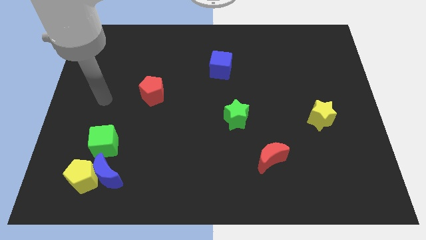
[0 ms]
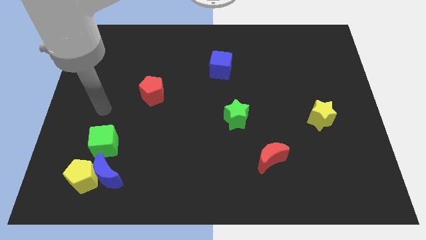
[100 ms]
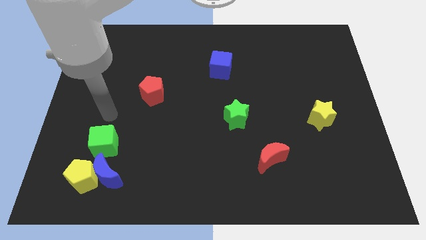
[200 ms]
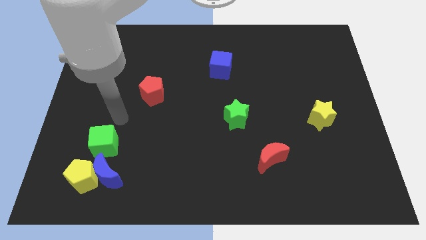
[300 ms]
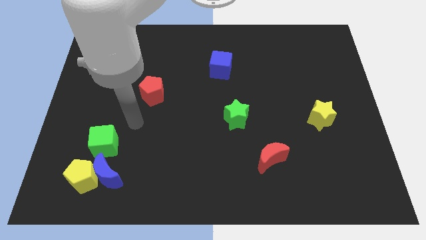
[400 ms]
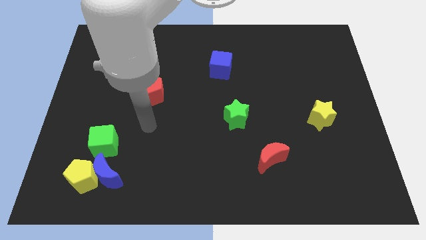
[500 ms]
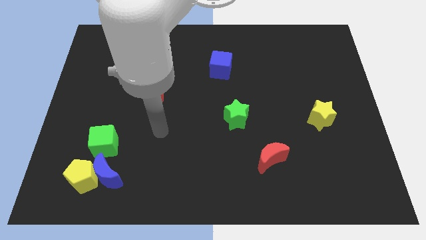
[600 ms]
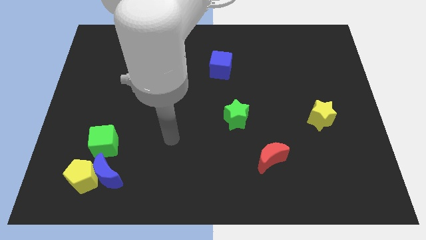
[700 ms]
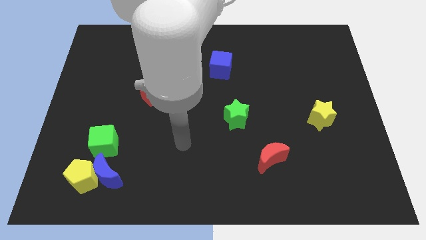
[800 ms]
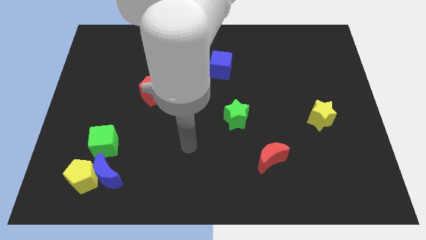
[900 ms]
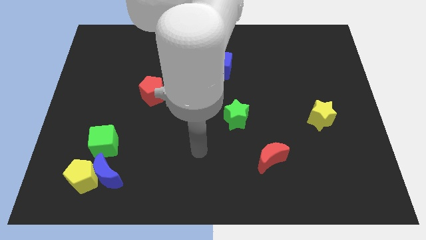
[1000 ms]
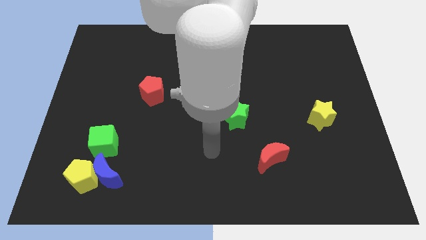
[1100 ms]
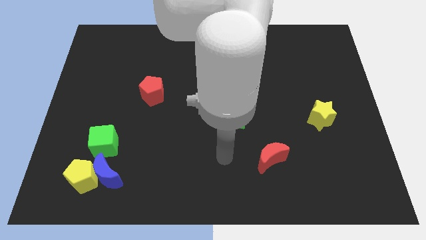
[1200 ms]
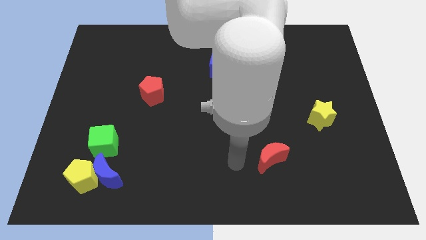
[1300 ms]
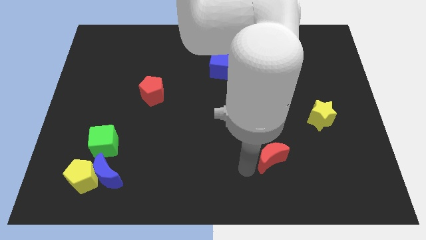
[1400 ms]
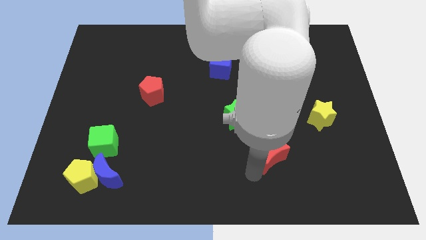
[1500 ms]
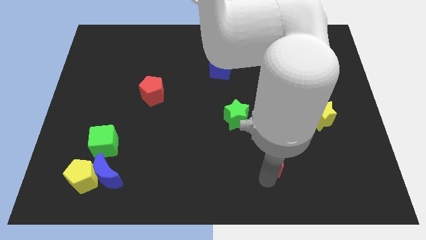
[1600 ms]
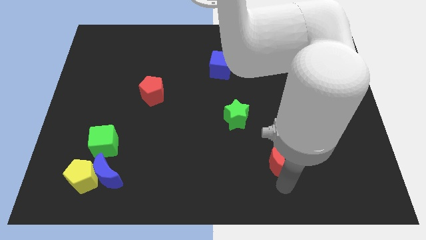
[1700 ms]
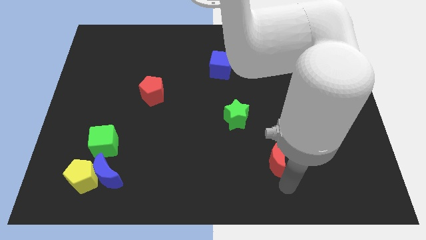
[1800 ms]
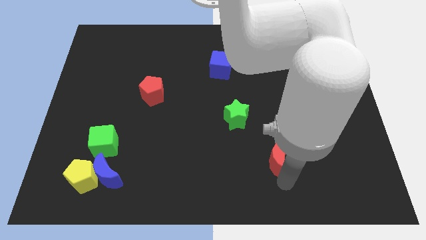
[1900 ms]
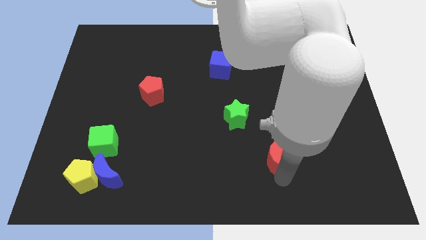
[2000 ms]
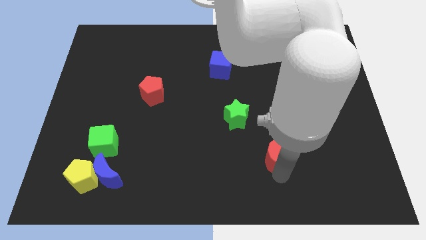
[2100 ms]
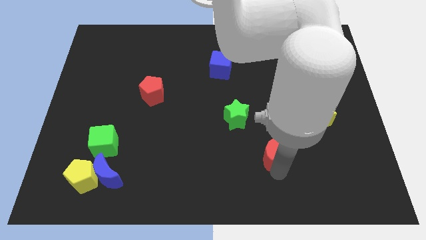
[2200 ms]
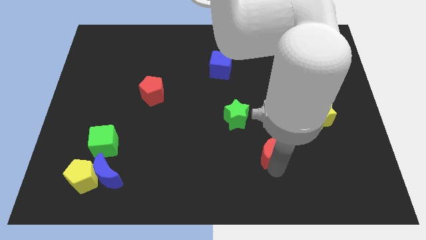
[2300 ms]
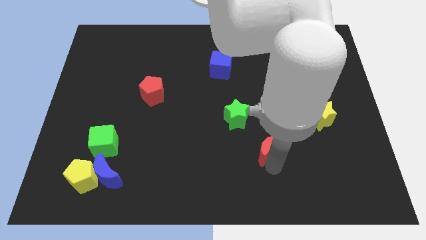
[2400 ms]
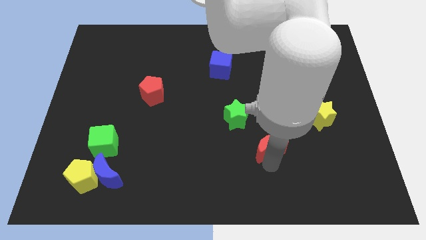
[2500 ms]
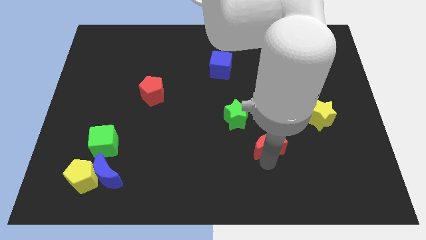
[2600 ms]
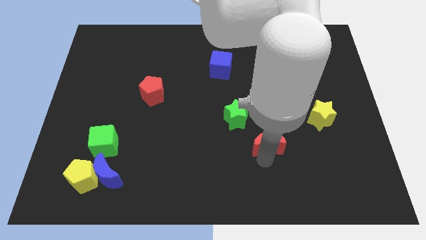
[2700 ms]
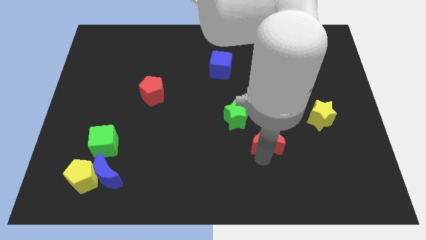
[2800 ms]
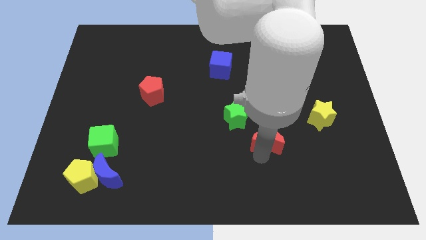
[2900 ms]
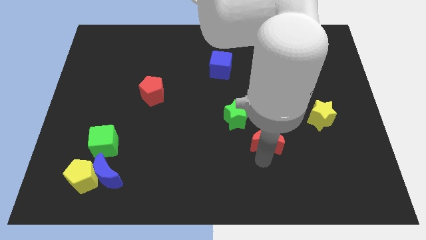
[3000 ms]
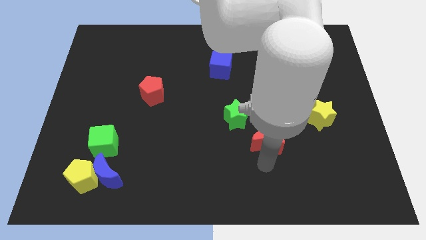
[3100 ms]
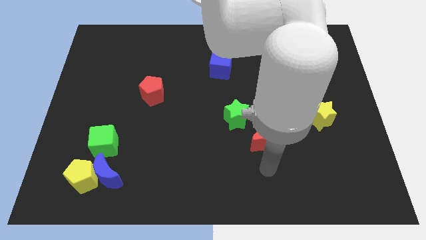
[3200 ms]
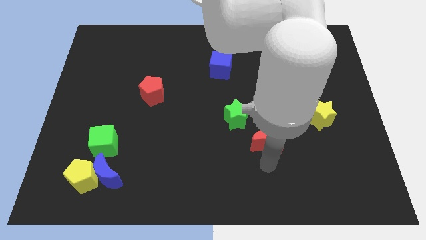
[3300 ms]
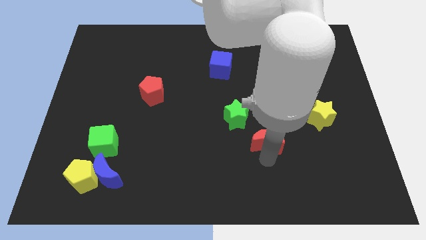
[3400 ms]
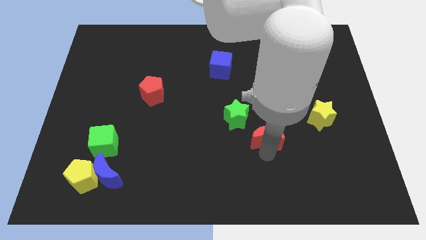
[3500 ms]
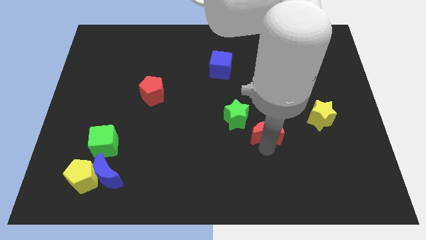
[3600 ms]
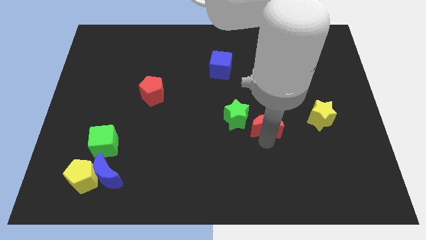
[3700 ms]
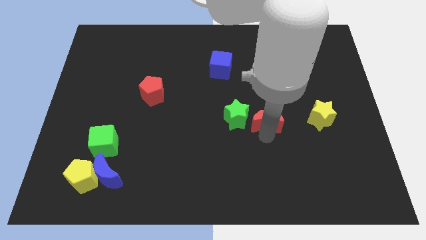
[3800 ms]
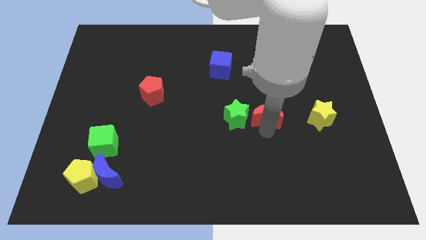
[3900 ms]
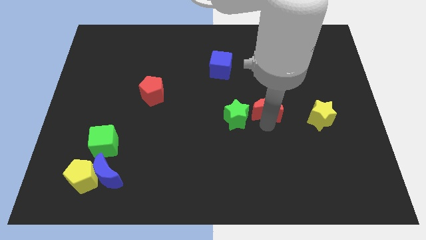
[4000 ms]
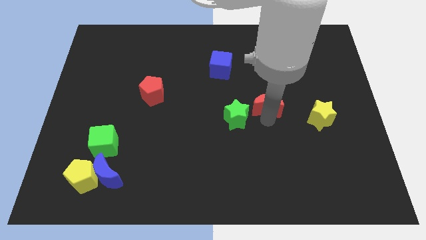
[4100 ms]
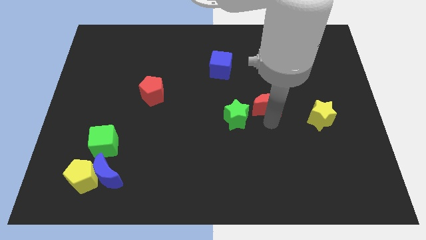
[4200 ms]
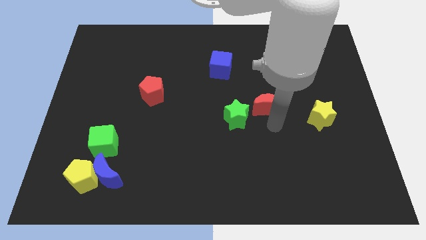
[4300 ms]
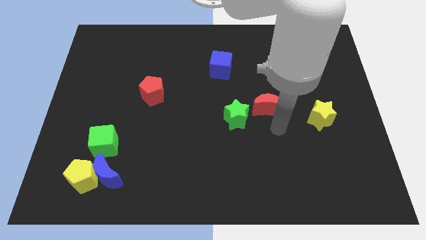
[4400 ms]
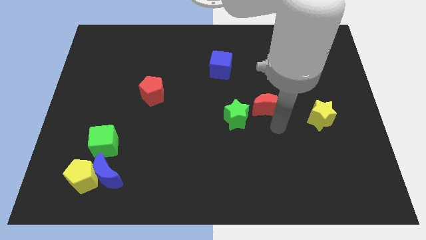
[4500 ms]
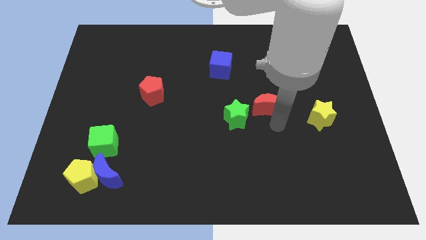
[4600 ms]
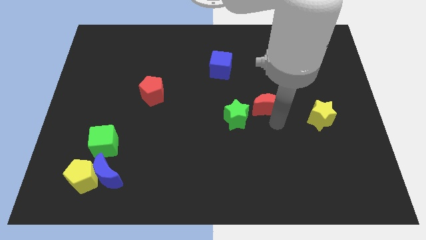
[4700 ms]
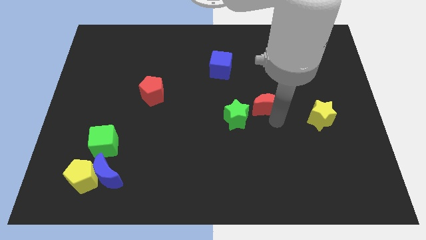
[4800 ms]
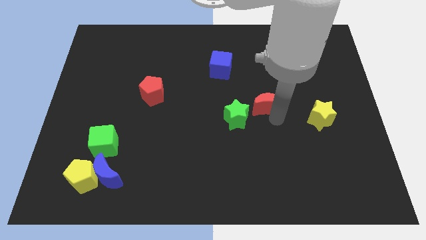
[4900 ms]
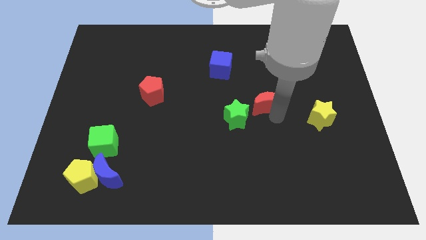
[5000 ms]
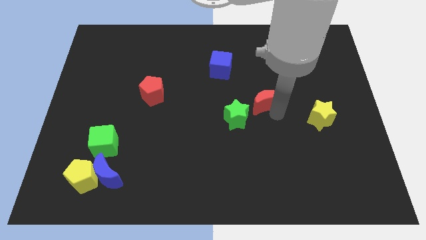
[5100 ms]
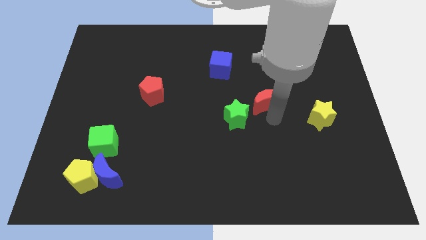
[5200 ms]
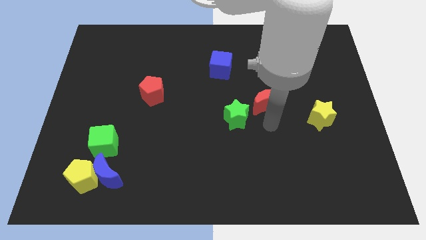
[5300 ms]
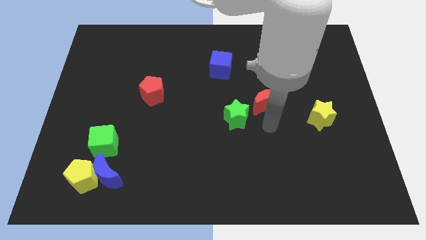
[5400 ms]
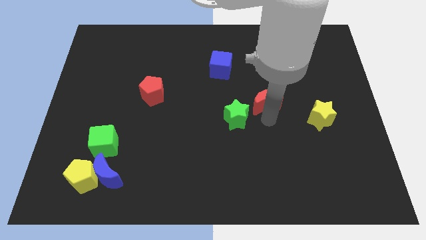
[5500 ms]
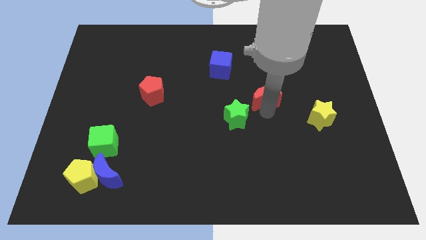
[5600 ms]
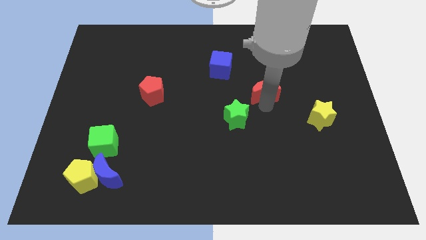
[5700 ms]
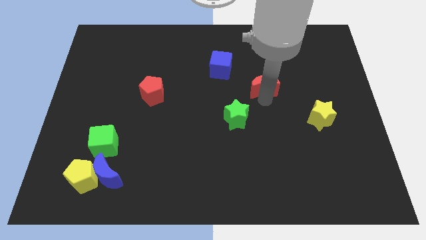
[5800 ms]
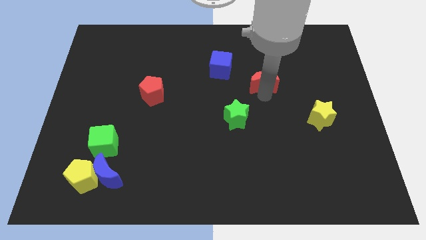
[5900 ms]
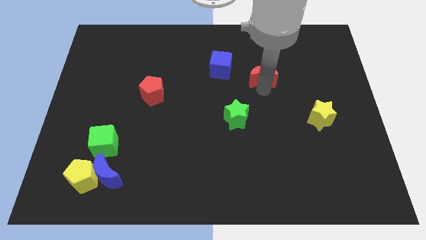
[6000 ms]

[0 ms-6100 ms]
move the red moon to the right side of the blue cube

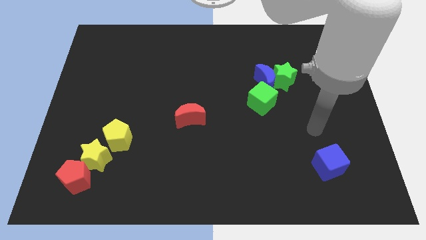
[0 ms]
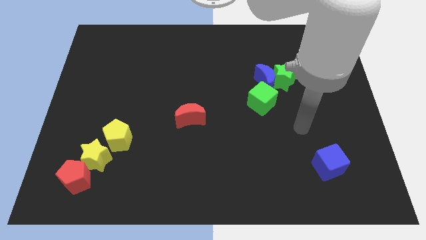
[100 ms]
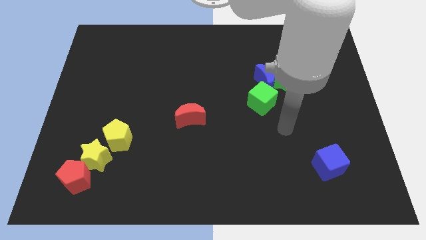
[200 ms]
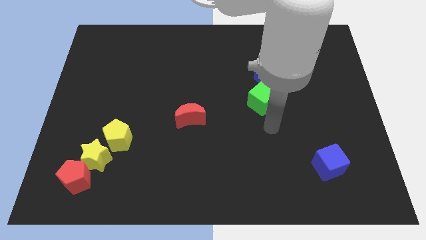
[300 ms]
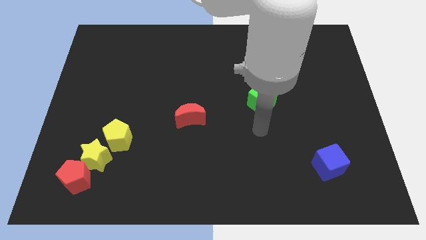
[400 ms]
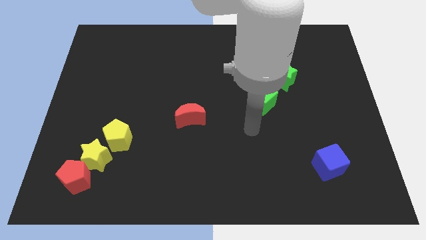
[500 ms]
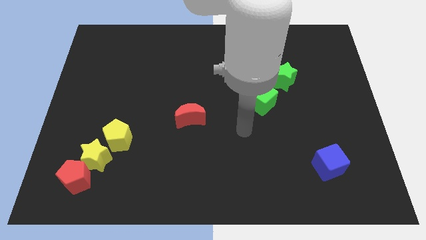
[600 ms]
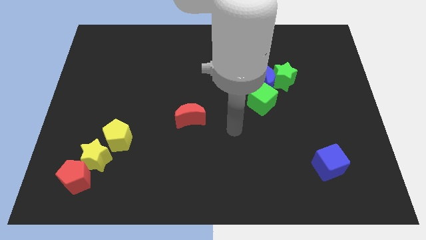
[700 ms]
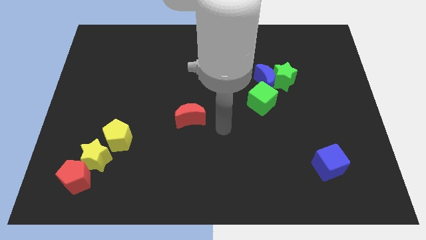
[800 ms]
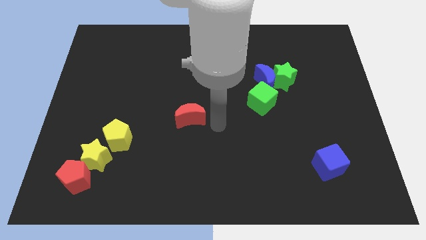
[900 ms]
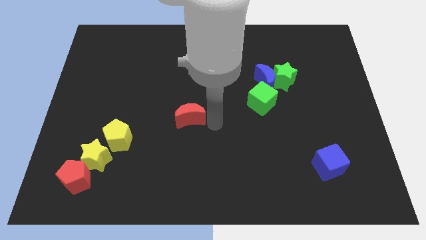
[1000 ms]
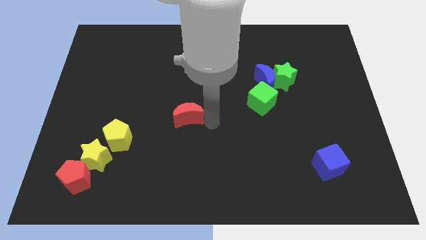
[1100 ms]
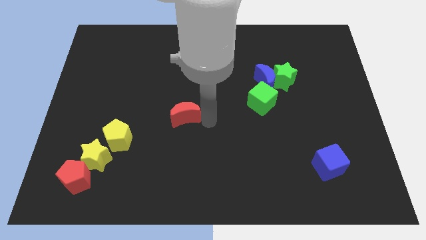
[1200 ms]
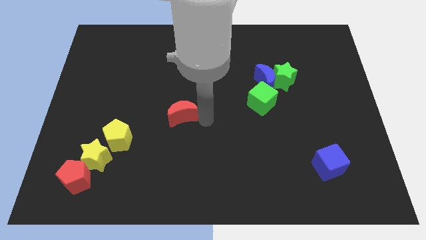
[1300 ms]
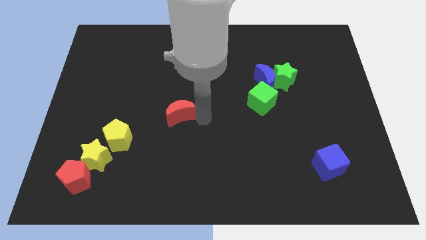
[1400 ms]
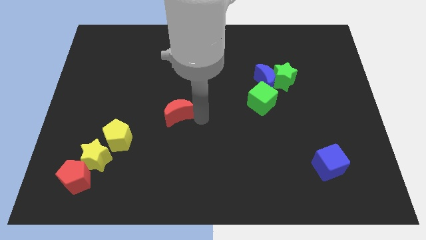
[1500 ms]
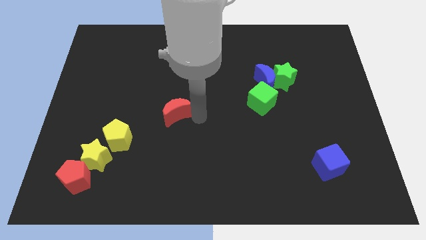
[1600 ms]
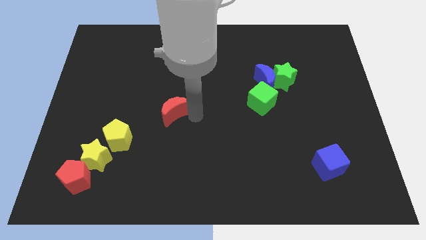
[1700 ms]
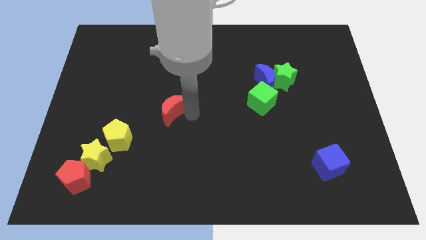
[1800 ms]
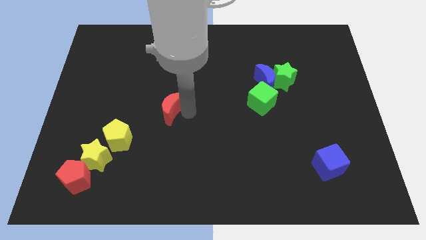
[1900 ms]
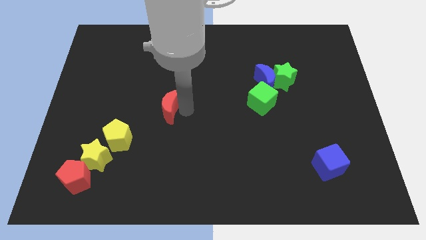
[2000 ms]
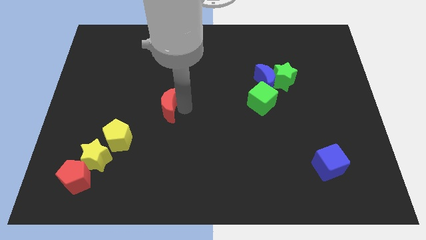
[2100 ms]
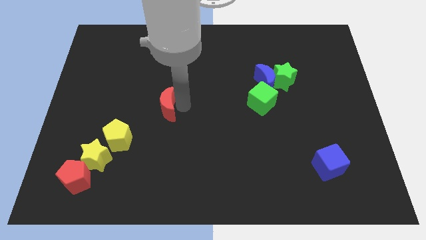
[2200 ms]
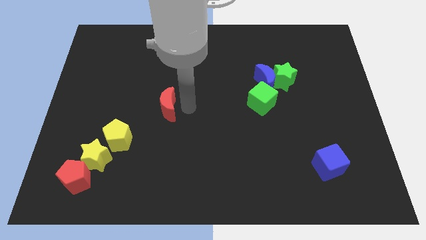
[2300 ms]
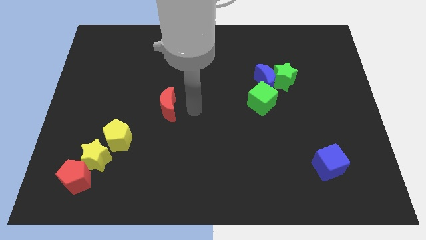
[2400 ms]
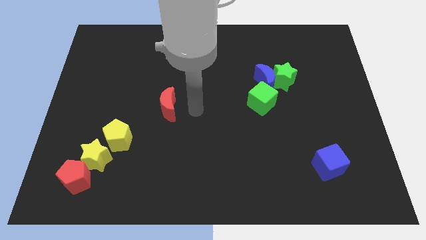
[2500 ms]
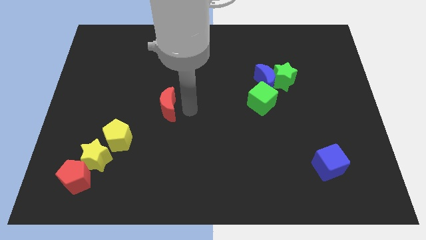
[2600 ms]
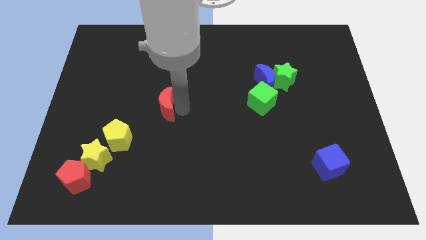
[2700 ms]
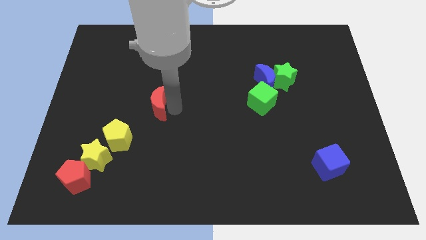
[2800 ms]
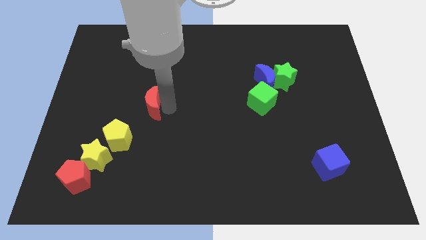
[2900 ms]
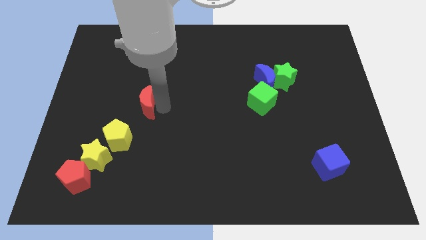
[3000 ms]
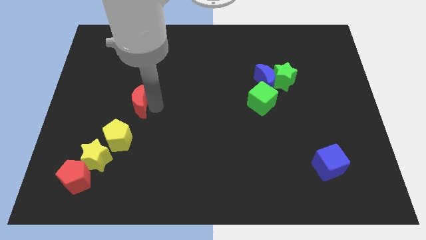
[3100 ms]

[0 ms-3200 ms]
put the red moon above the yellow pentagon
